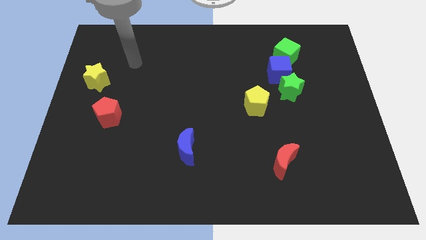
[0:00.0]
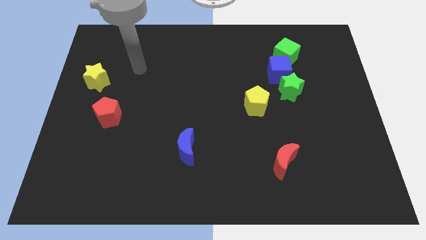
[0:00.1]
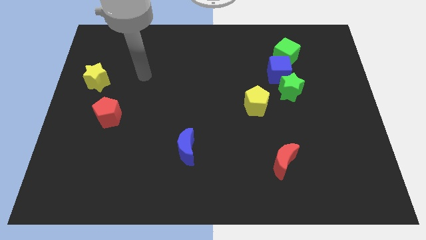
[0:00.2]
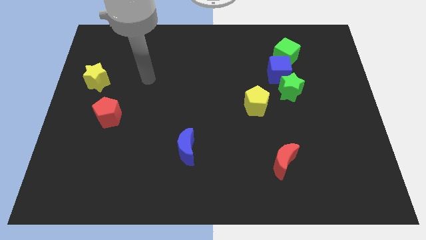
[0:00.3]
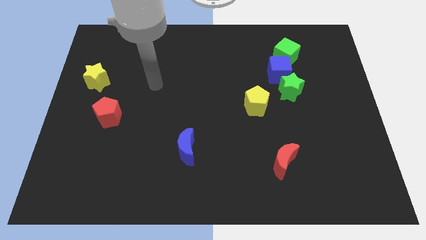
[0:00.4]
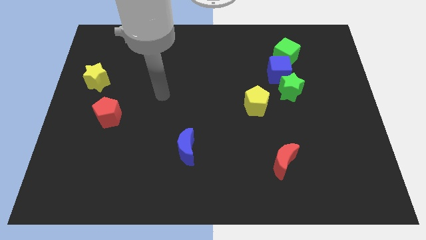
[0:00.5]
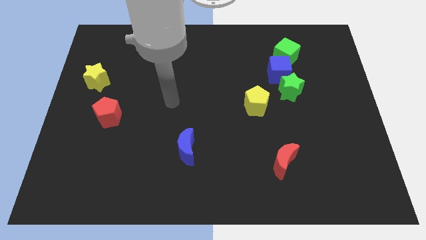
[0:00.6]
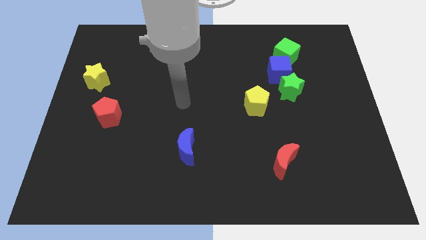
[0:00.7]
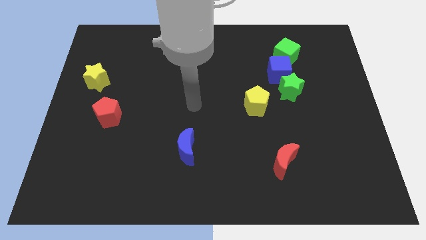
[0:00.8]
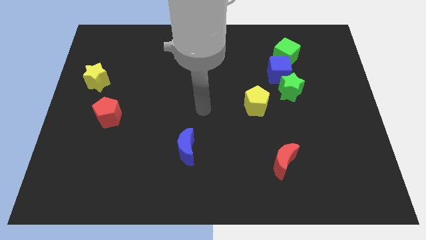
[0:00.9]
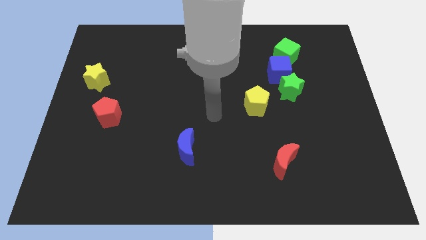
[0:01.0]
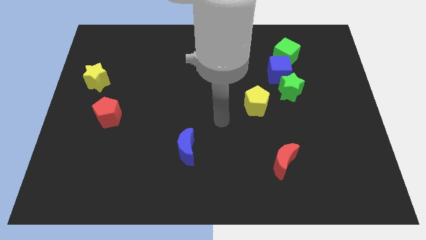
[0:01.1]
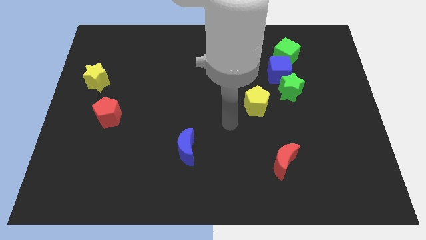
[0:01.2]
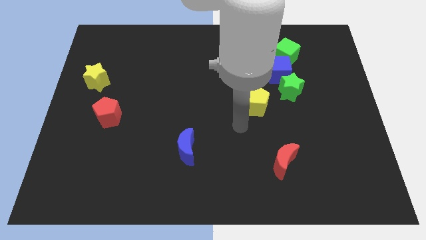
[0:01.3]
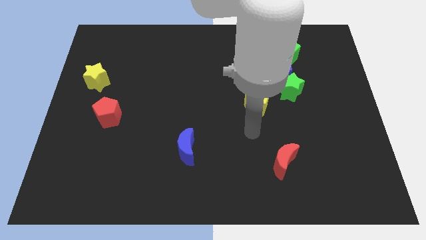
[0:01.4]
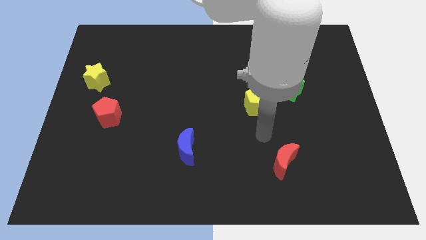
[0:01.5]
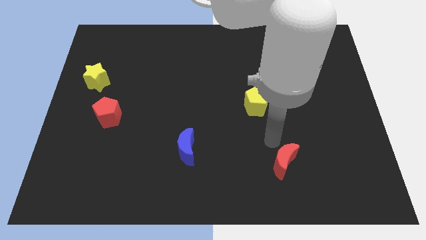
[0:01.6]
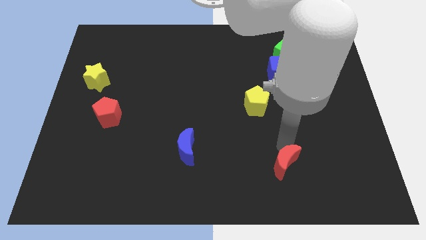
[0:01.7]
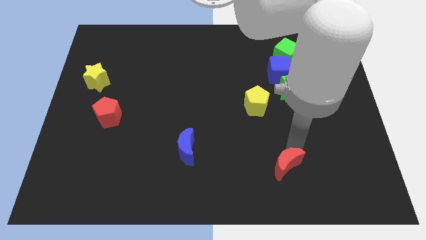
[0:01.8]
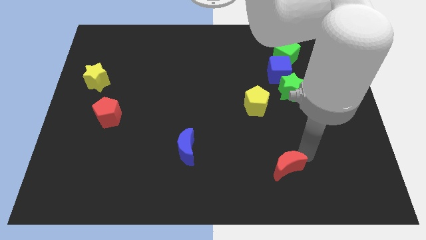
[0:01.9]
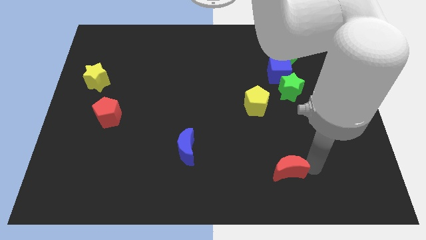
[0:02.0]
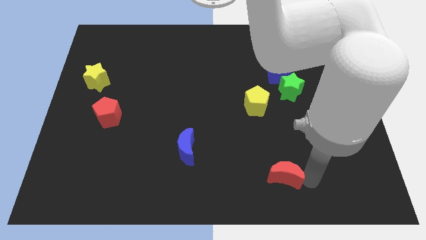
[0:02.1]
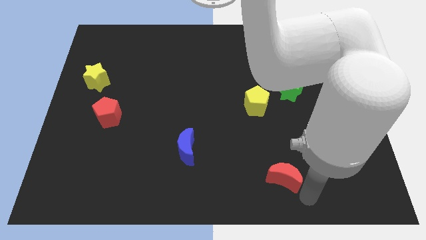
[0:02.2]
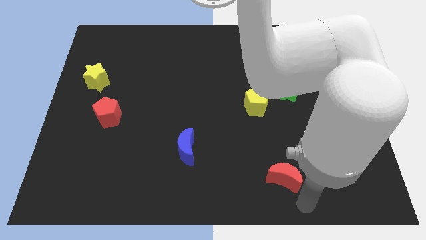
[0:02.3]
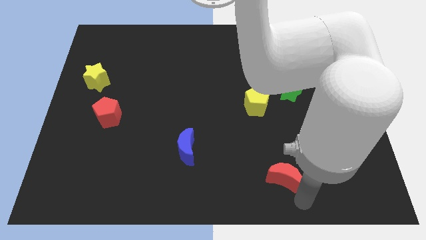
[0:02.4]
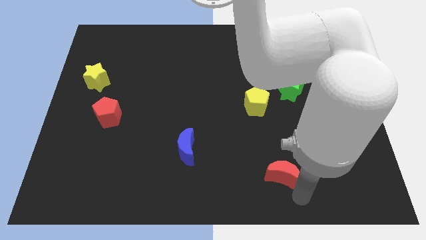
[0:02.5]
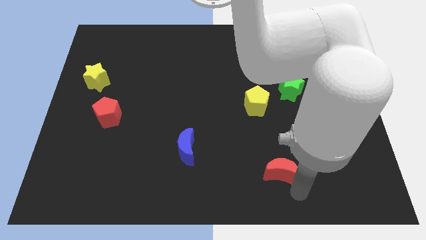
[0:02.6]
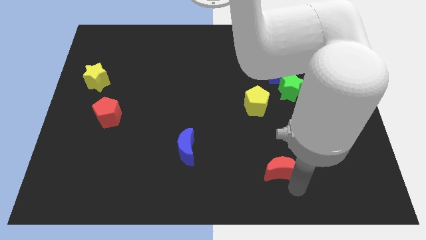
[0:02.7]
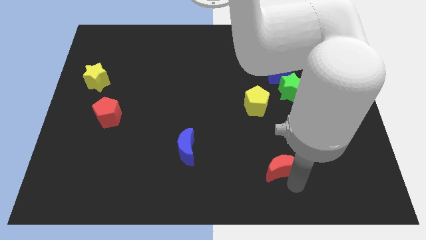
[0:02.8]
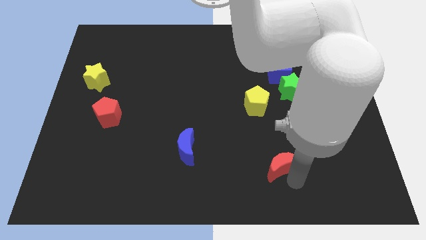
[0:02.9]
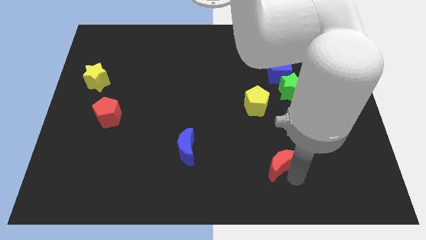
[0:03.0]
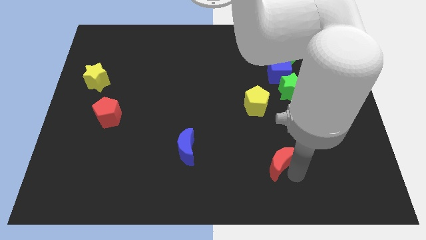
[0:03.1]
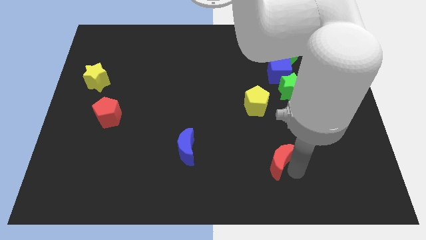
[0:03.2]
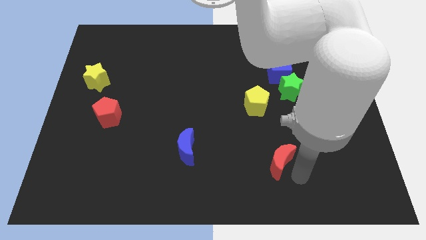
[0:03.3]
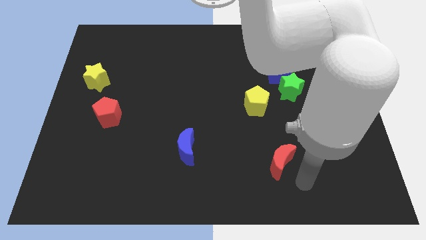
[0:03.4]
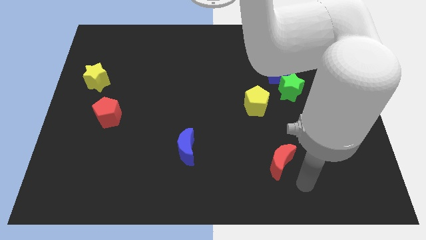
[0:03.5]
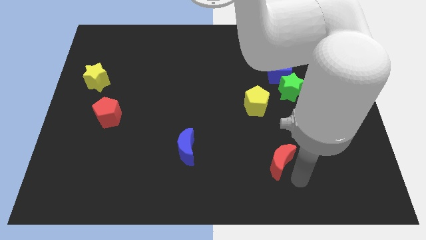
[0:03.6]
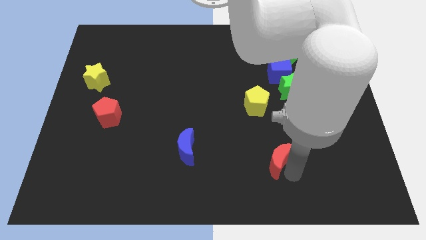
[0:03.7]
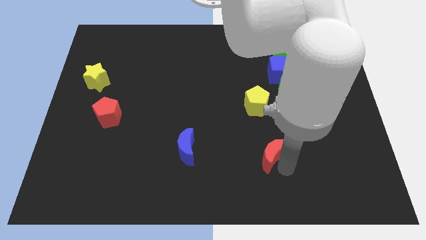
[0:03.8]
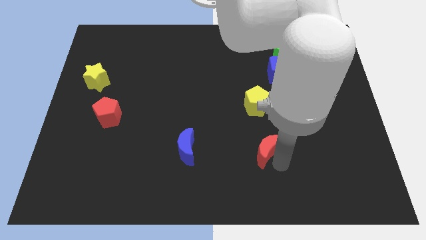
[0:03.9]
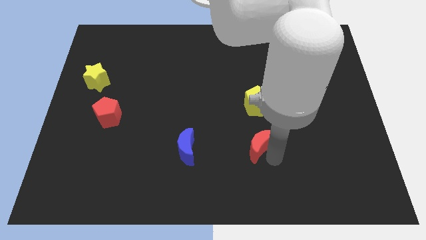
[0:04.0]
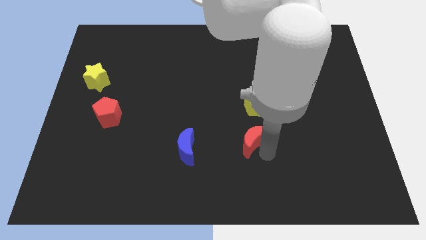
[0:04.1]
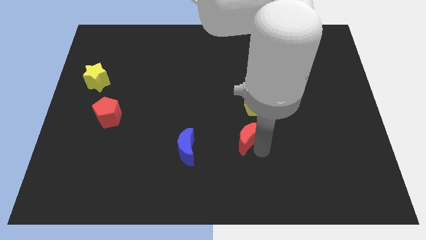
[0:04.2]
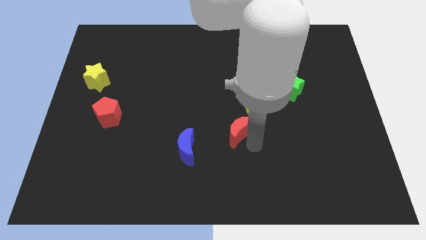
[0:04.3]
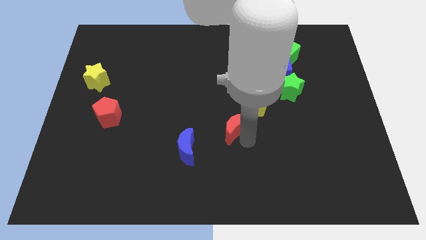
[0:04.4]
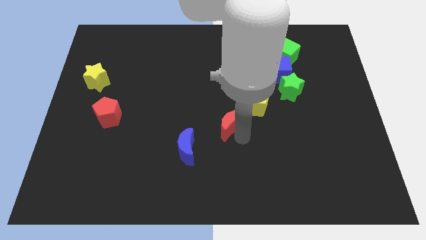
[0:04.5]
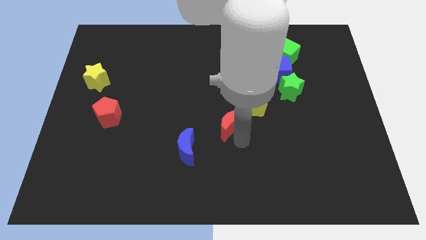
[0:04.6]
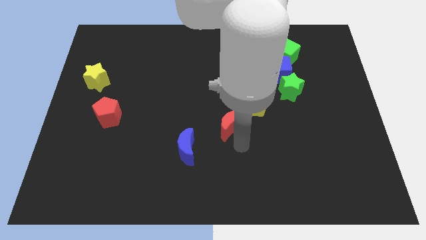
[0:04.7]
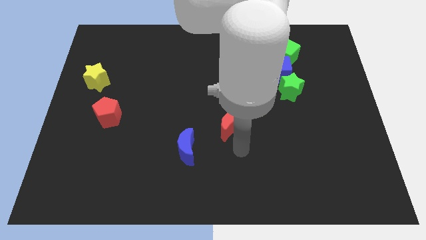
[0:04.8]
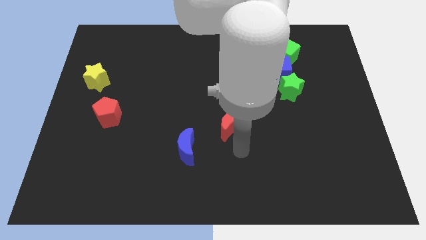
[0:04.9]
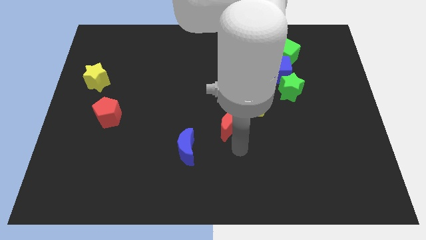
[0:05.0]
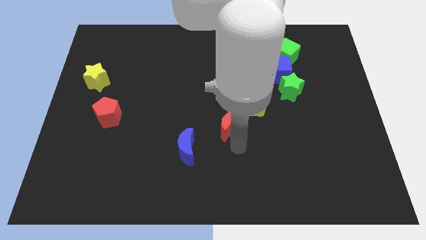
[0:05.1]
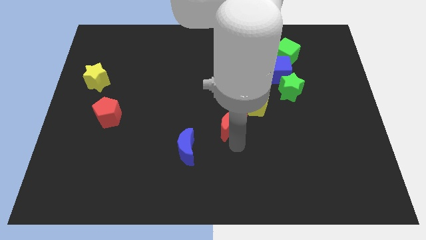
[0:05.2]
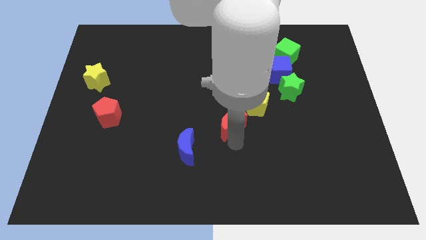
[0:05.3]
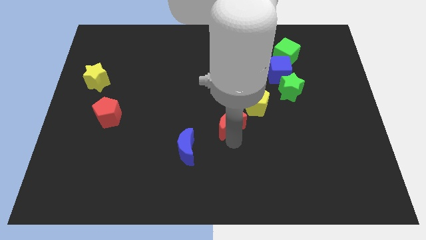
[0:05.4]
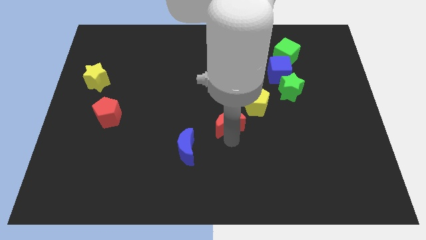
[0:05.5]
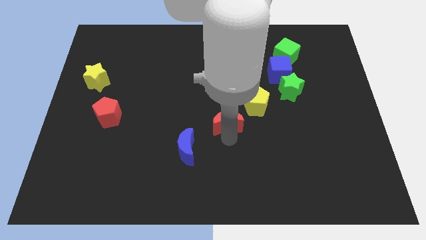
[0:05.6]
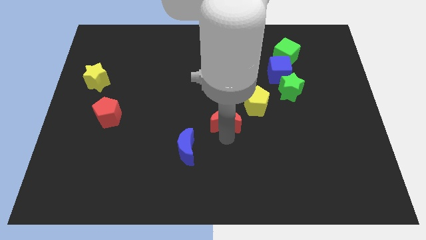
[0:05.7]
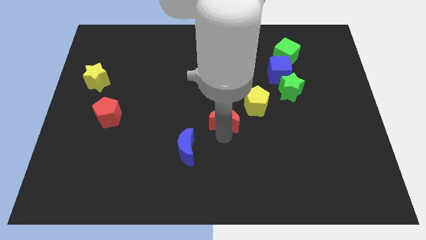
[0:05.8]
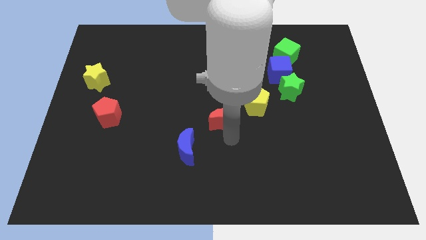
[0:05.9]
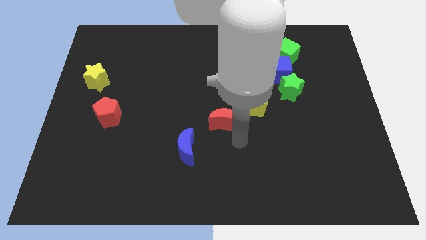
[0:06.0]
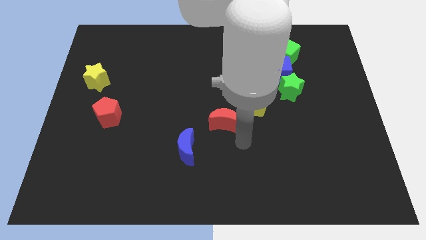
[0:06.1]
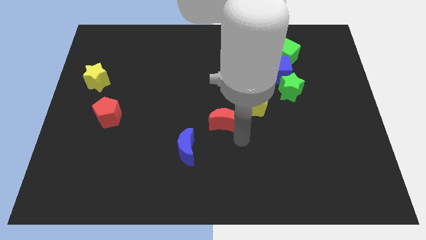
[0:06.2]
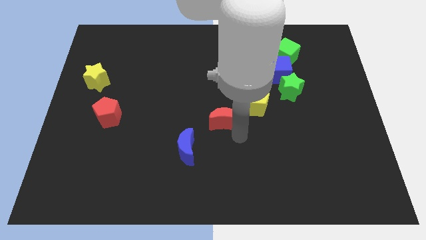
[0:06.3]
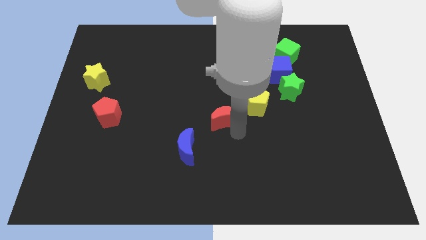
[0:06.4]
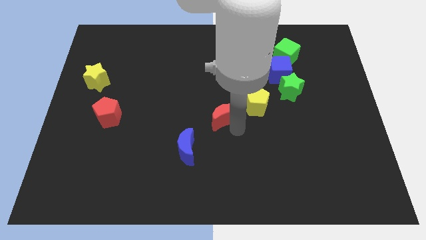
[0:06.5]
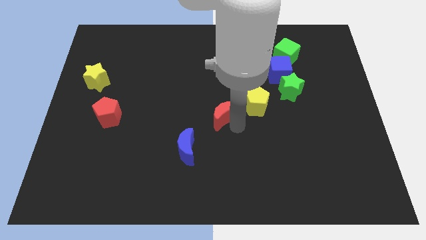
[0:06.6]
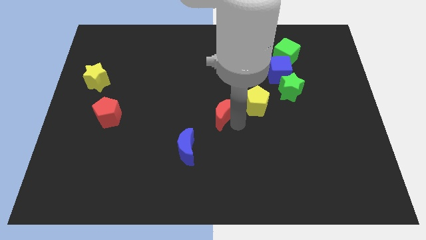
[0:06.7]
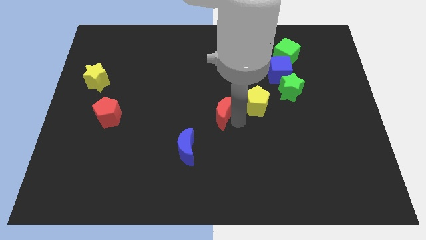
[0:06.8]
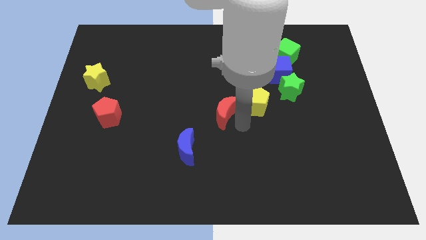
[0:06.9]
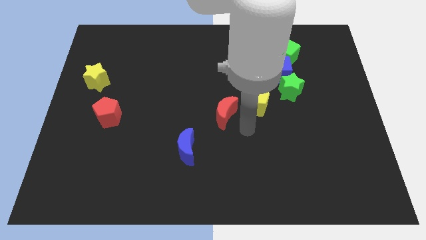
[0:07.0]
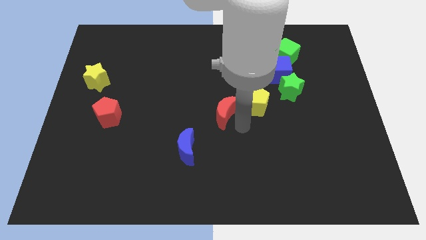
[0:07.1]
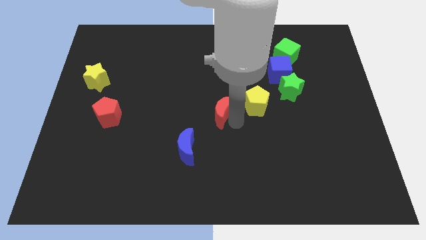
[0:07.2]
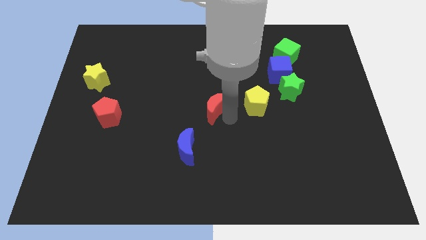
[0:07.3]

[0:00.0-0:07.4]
slide the red moon upwards and left diagonally

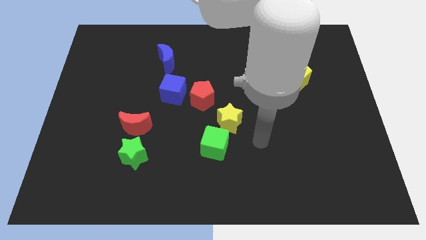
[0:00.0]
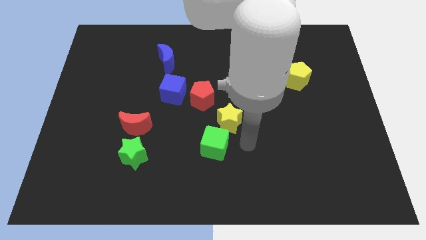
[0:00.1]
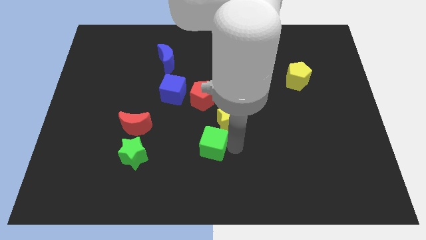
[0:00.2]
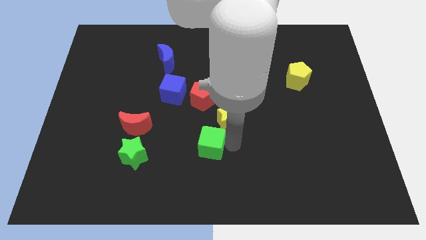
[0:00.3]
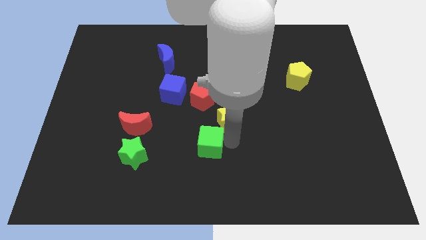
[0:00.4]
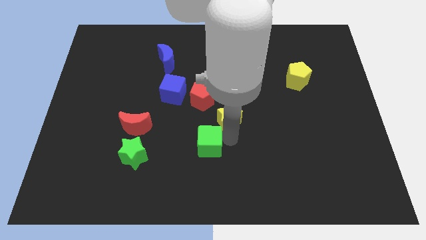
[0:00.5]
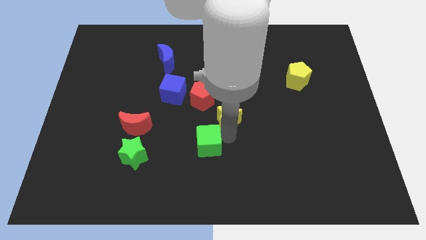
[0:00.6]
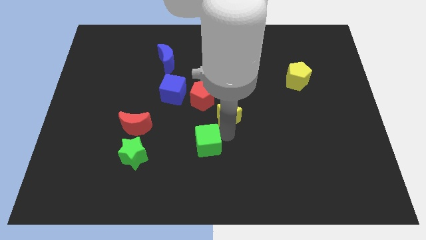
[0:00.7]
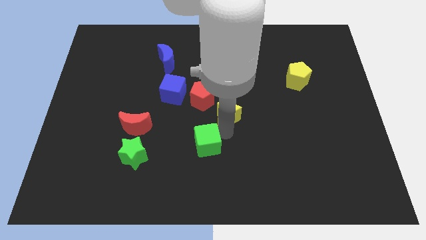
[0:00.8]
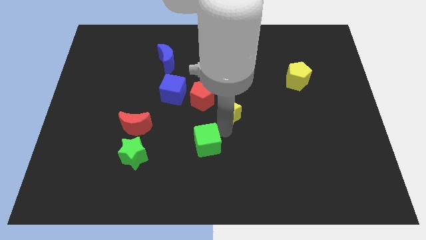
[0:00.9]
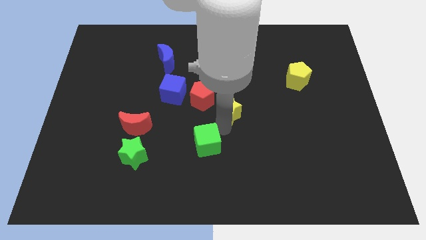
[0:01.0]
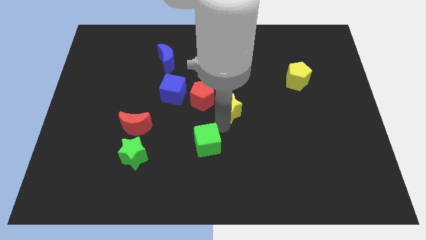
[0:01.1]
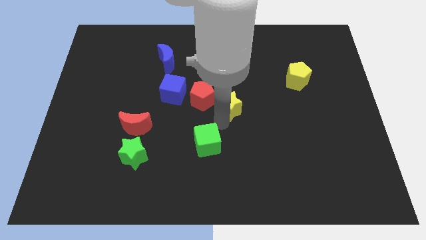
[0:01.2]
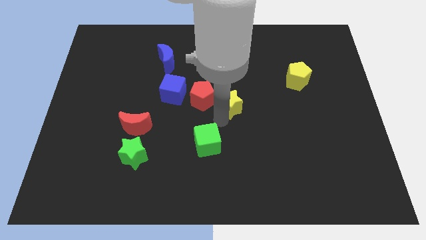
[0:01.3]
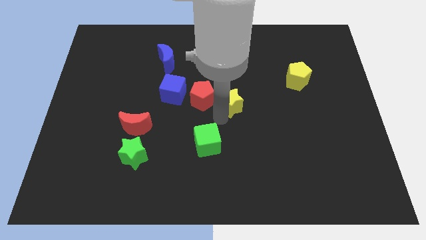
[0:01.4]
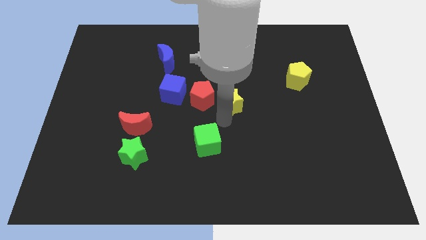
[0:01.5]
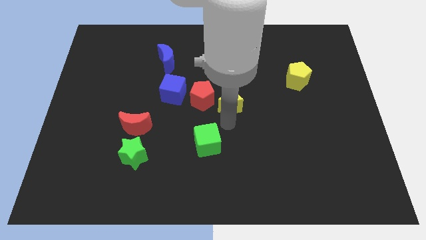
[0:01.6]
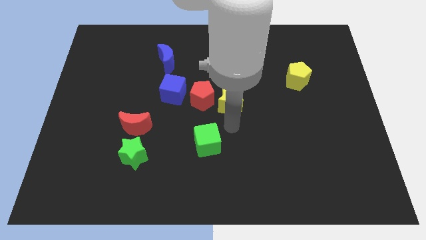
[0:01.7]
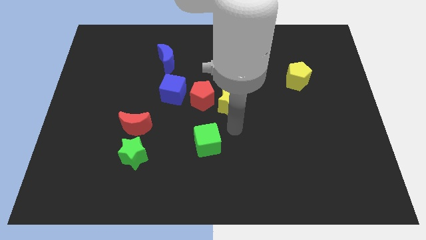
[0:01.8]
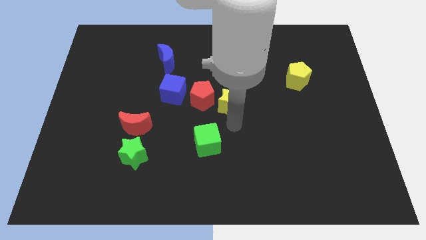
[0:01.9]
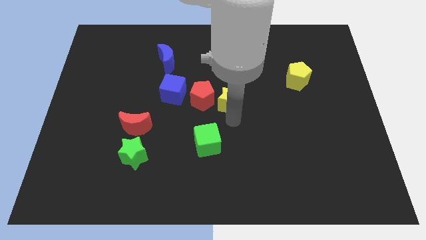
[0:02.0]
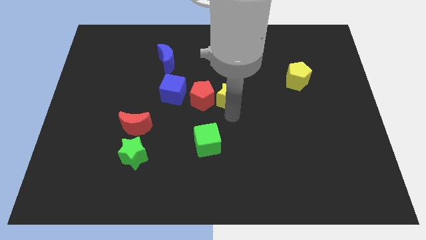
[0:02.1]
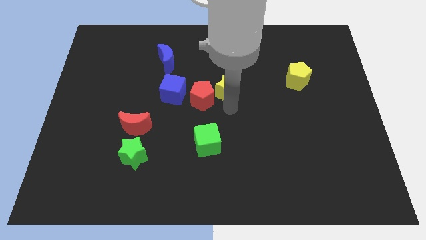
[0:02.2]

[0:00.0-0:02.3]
push the yellow star upwards a little
